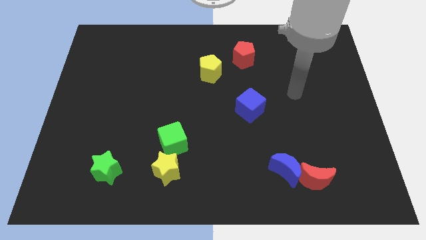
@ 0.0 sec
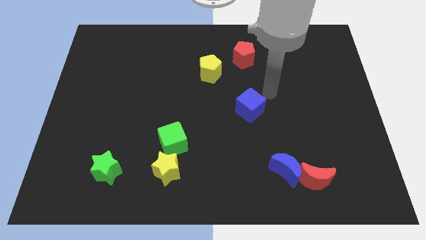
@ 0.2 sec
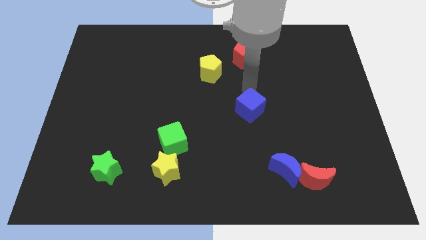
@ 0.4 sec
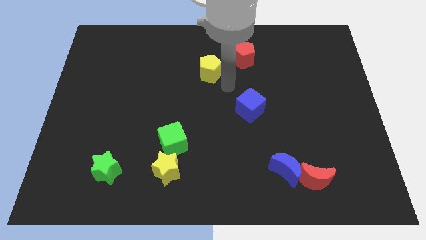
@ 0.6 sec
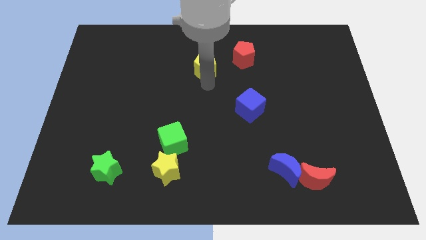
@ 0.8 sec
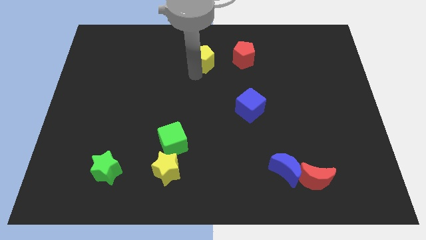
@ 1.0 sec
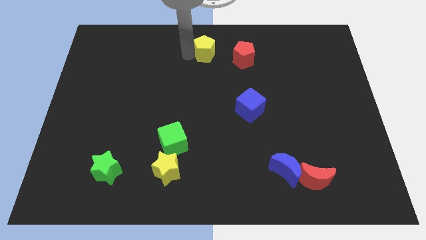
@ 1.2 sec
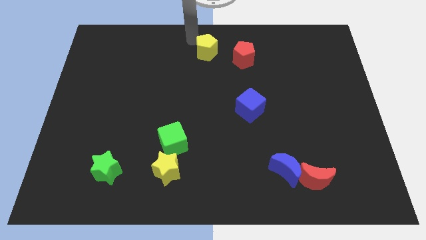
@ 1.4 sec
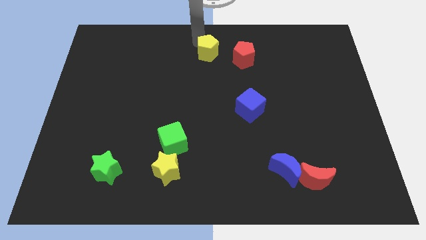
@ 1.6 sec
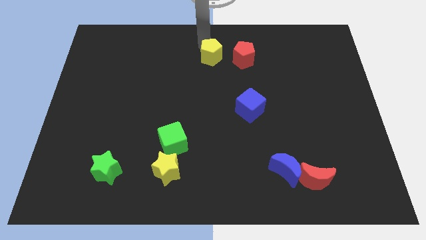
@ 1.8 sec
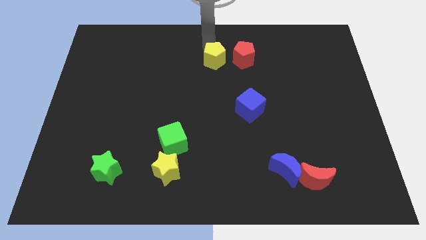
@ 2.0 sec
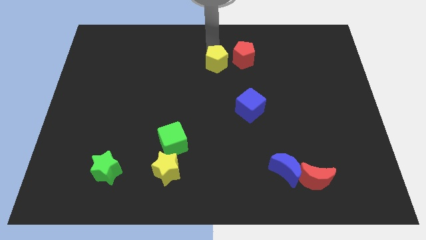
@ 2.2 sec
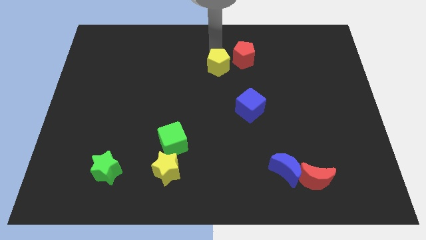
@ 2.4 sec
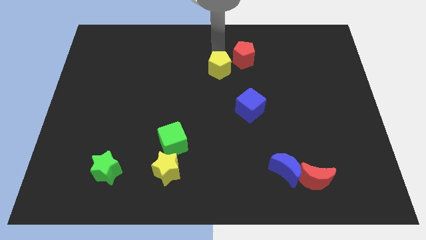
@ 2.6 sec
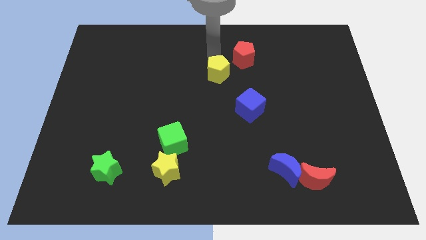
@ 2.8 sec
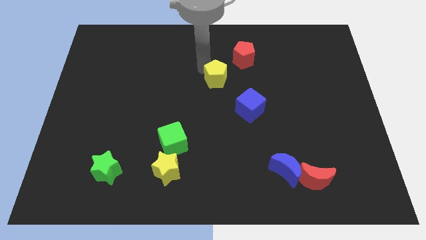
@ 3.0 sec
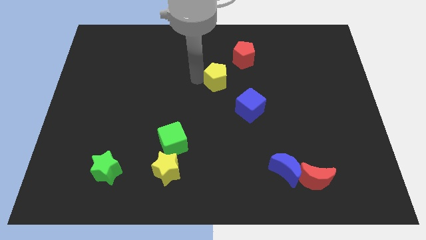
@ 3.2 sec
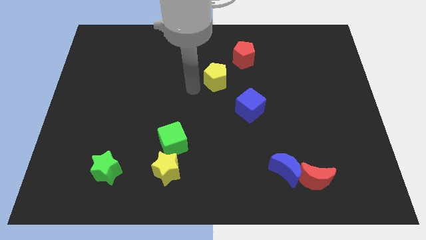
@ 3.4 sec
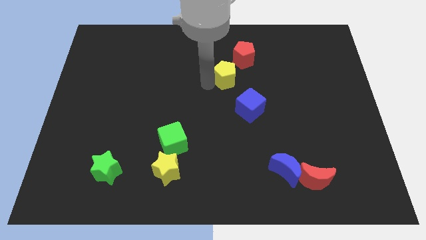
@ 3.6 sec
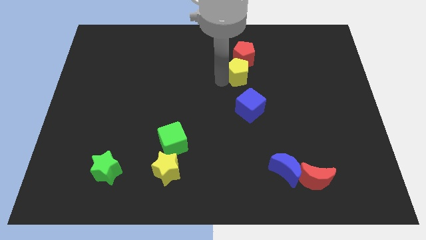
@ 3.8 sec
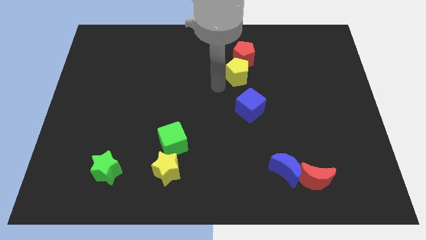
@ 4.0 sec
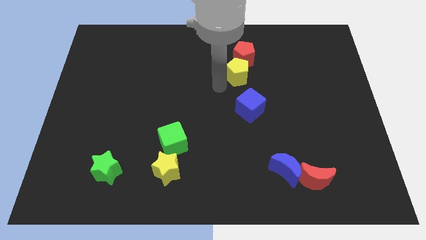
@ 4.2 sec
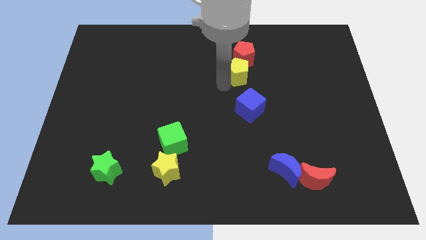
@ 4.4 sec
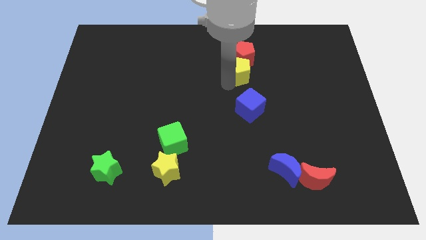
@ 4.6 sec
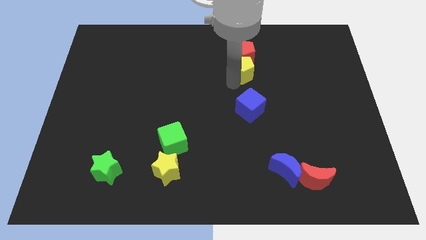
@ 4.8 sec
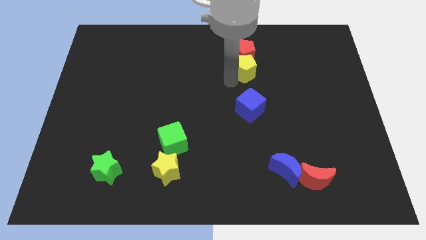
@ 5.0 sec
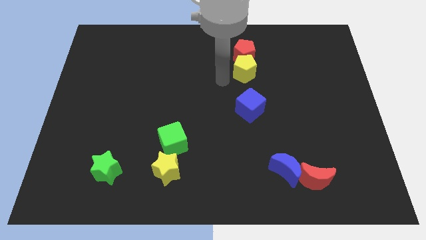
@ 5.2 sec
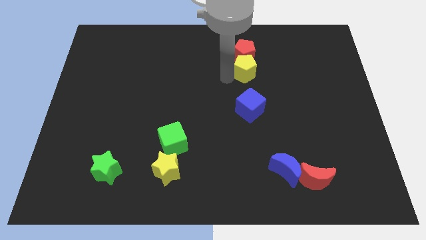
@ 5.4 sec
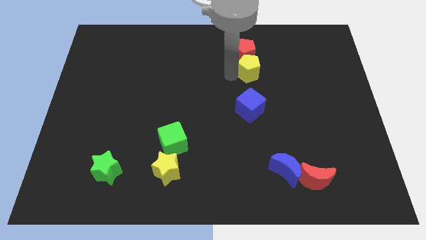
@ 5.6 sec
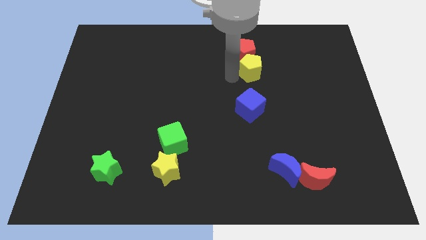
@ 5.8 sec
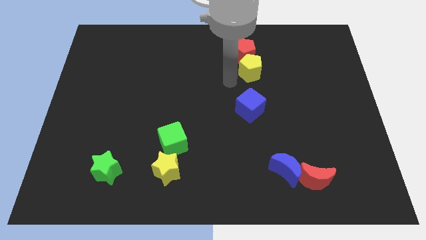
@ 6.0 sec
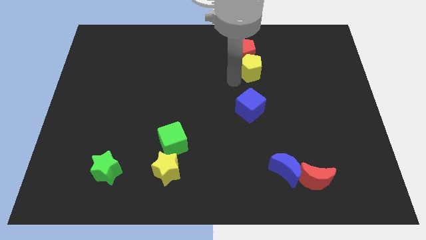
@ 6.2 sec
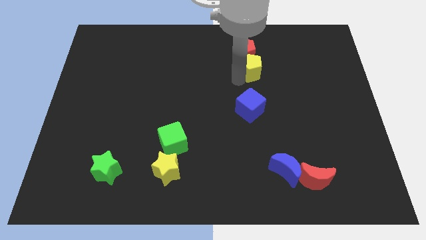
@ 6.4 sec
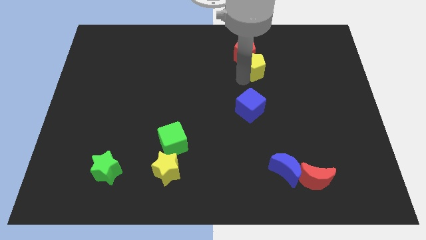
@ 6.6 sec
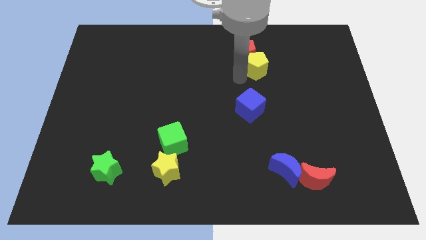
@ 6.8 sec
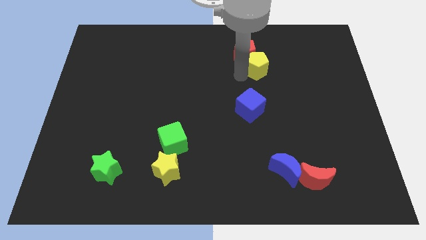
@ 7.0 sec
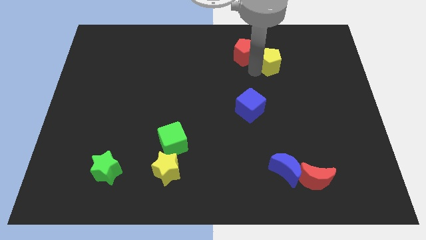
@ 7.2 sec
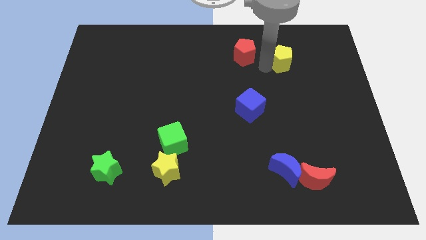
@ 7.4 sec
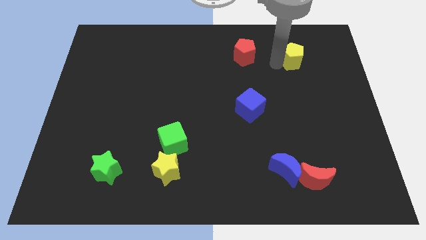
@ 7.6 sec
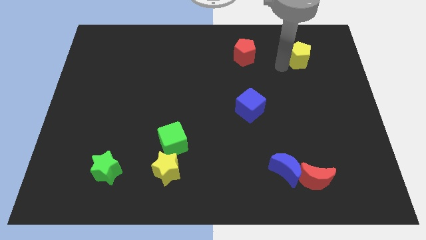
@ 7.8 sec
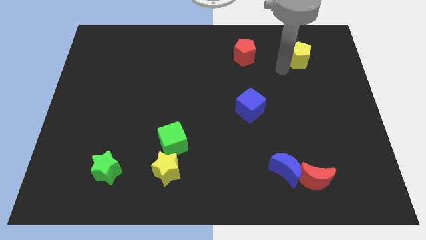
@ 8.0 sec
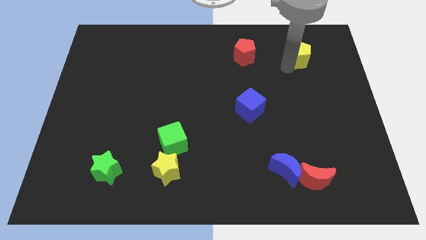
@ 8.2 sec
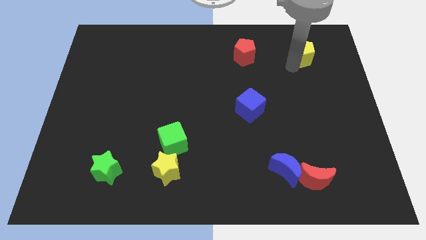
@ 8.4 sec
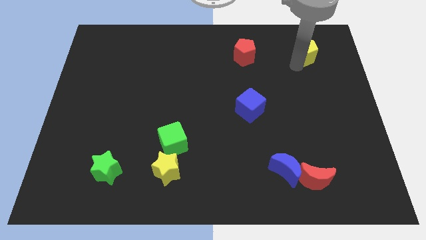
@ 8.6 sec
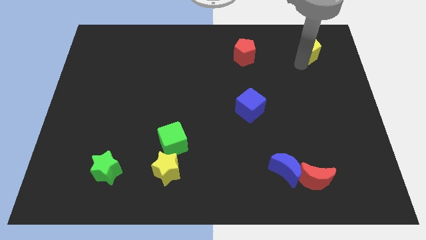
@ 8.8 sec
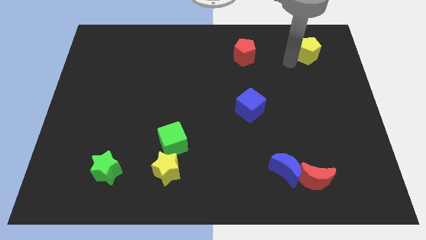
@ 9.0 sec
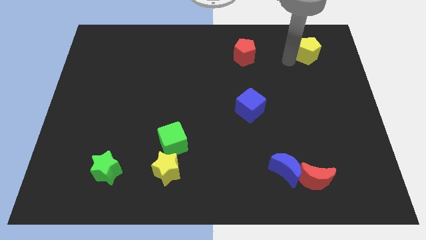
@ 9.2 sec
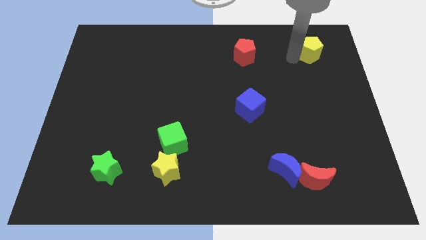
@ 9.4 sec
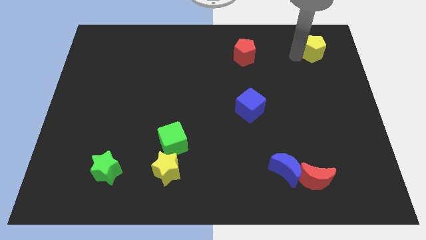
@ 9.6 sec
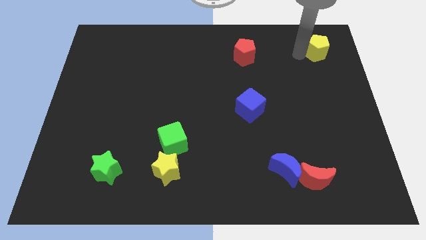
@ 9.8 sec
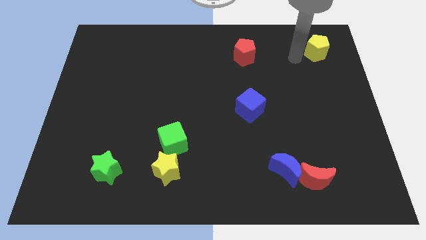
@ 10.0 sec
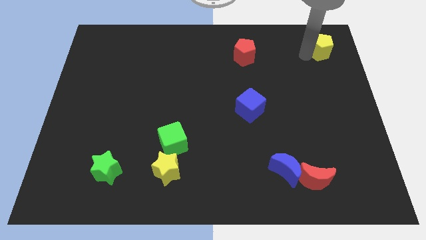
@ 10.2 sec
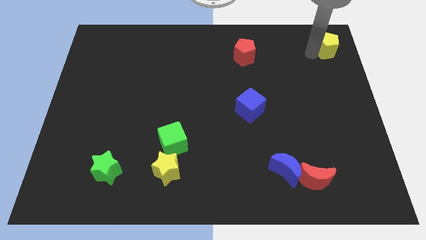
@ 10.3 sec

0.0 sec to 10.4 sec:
put the yellow pentagon to the upper right corner

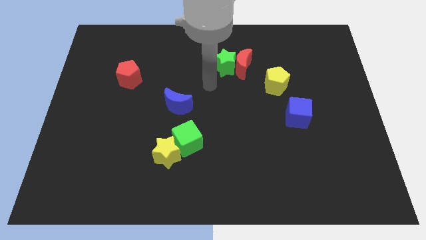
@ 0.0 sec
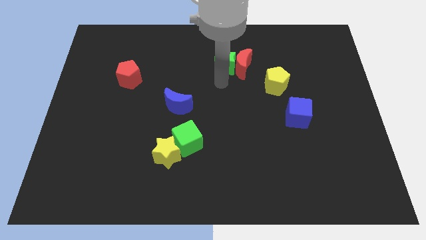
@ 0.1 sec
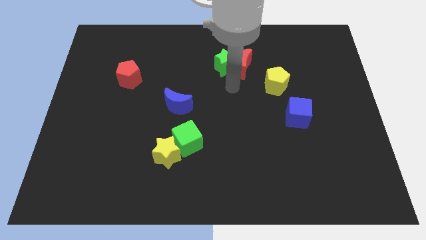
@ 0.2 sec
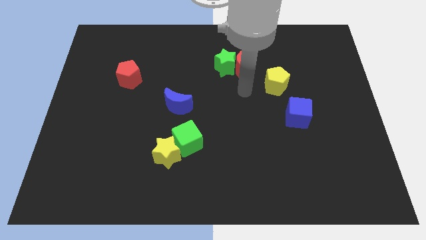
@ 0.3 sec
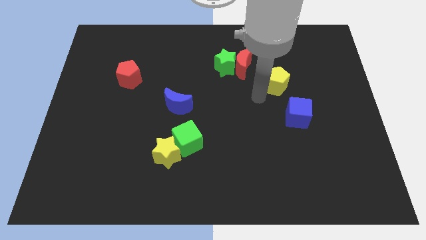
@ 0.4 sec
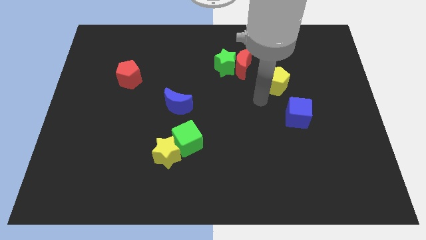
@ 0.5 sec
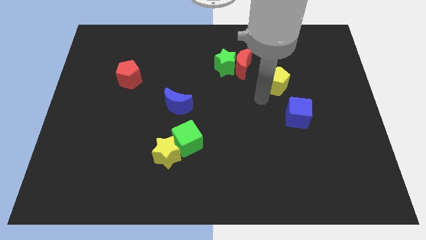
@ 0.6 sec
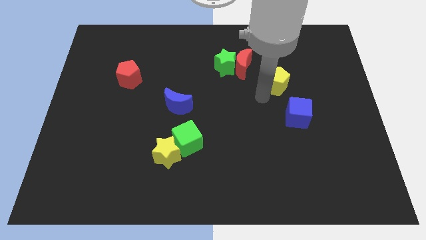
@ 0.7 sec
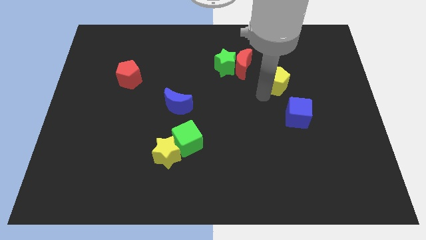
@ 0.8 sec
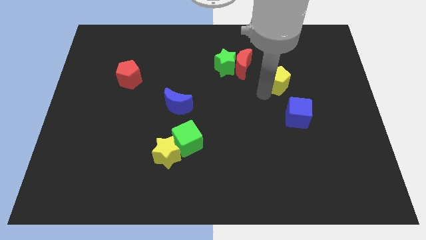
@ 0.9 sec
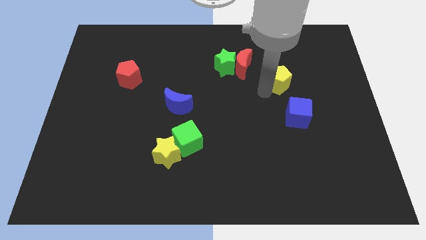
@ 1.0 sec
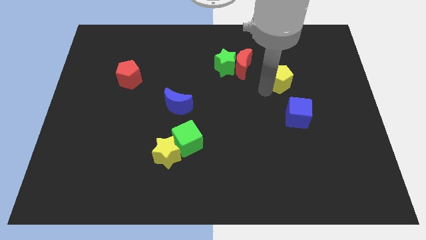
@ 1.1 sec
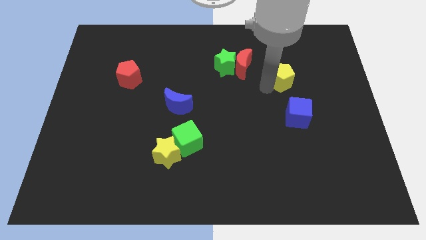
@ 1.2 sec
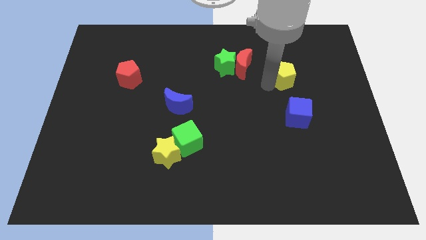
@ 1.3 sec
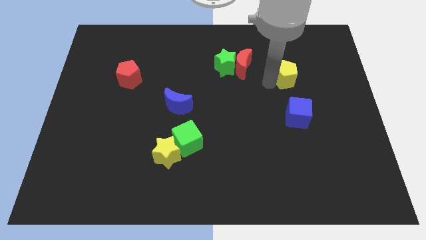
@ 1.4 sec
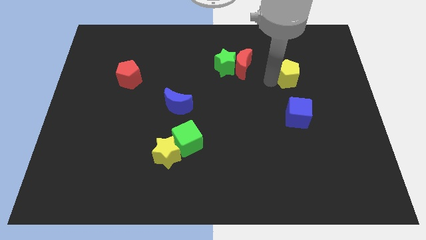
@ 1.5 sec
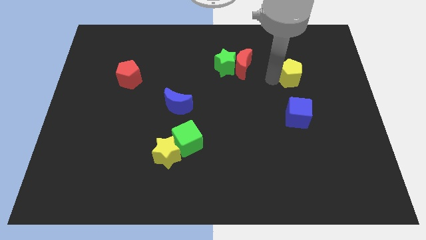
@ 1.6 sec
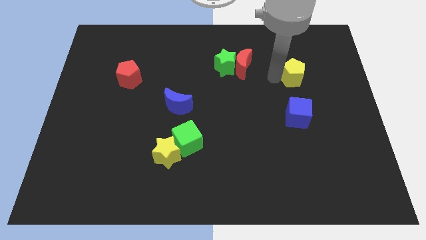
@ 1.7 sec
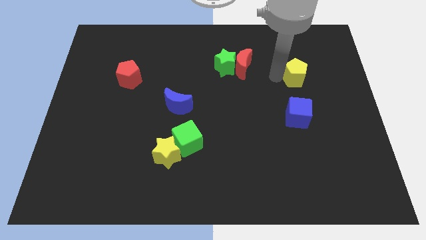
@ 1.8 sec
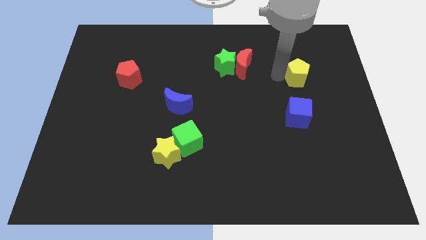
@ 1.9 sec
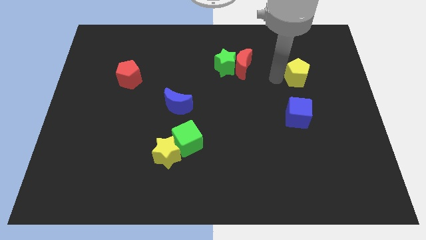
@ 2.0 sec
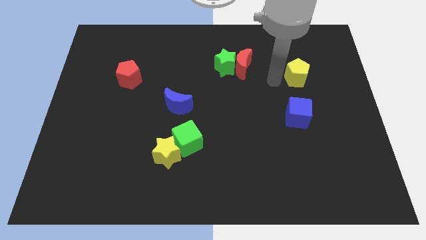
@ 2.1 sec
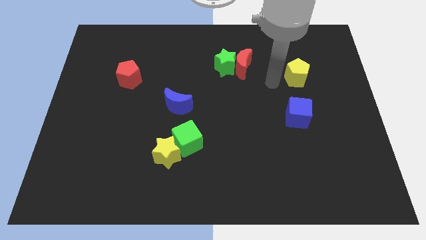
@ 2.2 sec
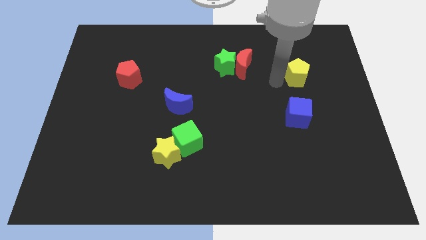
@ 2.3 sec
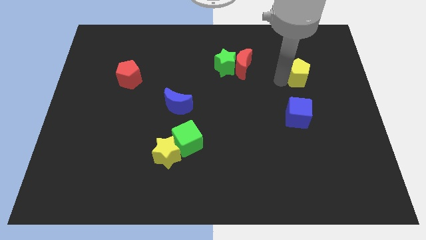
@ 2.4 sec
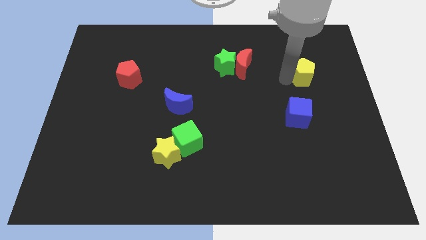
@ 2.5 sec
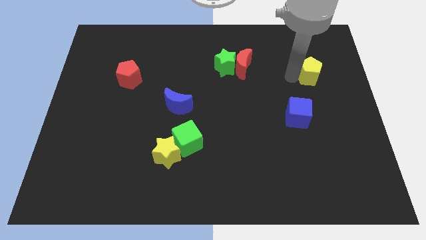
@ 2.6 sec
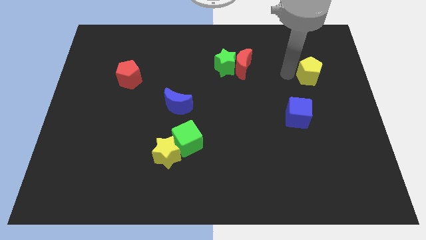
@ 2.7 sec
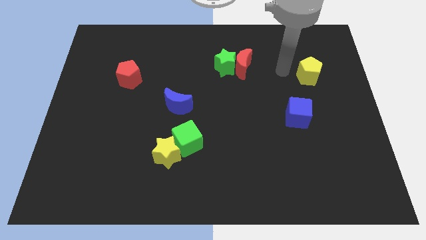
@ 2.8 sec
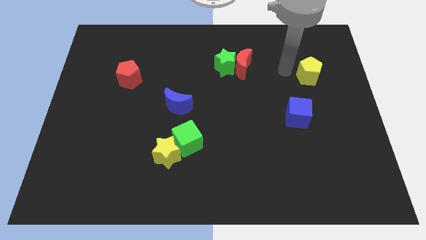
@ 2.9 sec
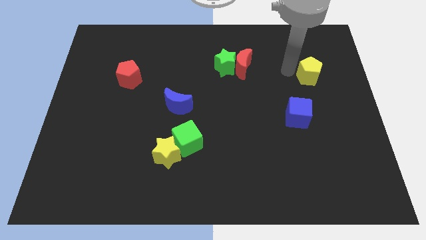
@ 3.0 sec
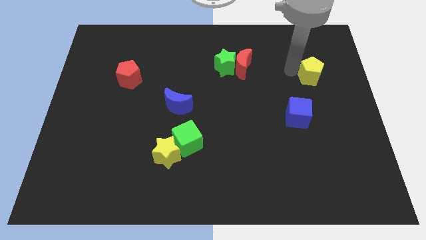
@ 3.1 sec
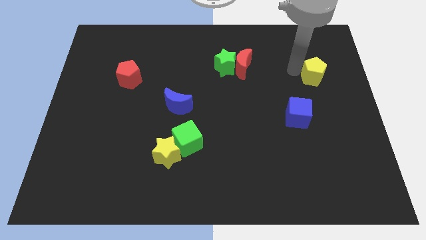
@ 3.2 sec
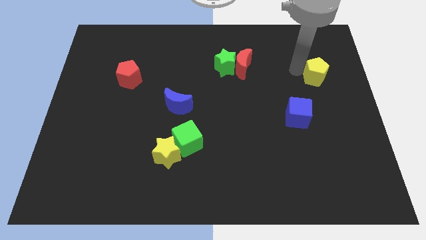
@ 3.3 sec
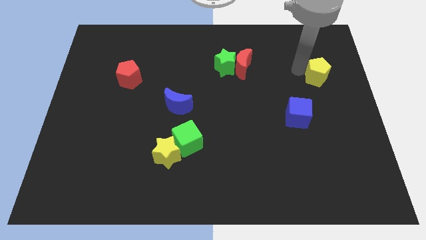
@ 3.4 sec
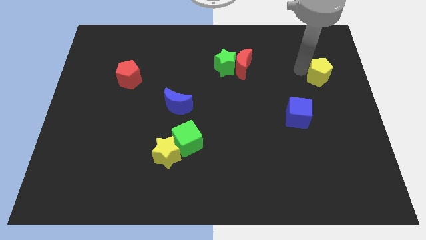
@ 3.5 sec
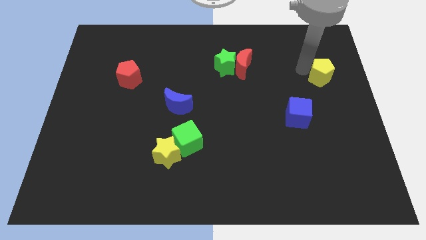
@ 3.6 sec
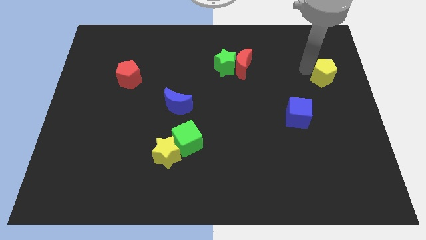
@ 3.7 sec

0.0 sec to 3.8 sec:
slide the yellow pentagon to the right side
